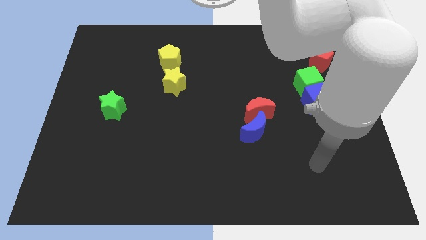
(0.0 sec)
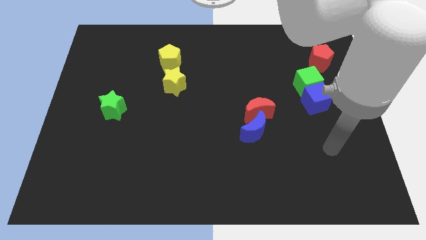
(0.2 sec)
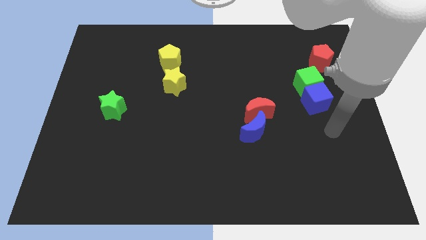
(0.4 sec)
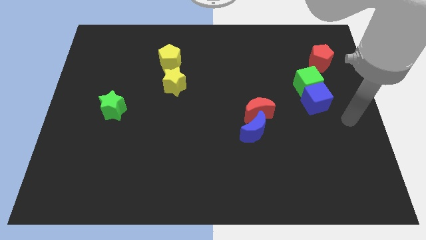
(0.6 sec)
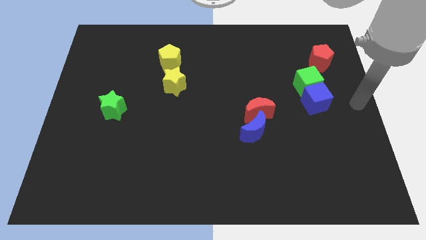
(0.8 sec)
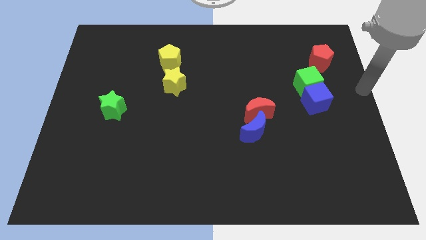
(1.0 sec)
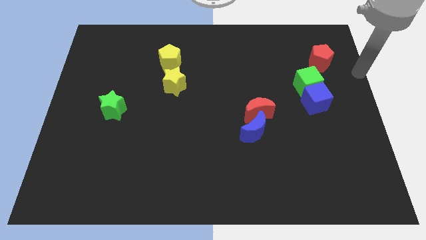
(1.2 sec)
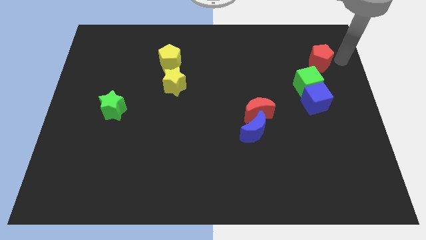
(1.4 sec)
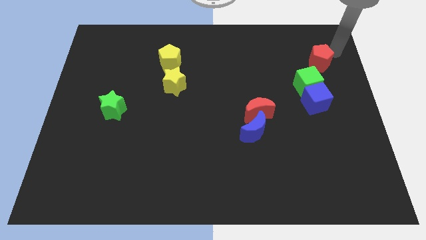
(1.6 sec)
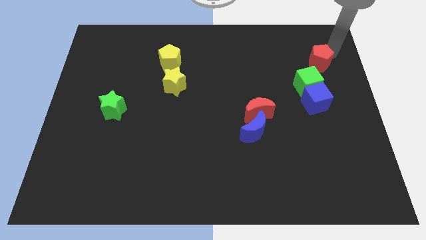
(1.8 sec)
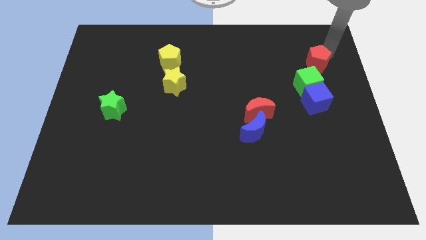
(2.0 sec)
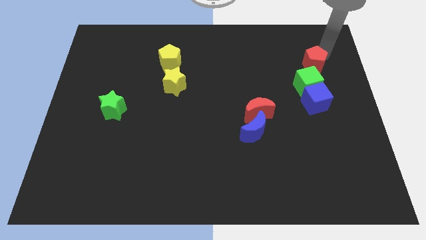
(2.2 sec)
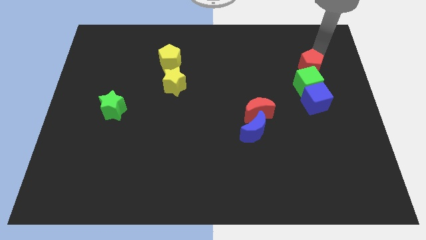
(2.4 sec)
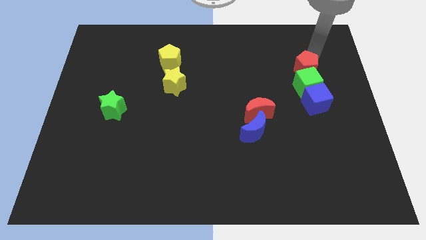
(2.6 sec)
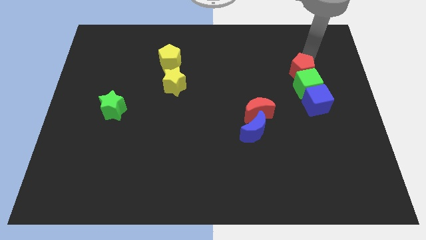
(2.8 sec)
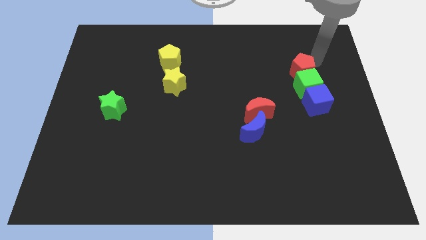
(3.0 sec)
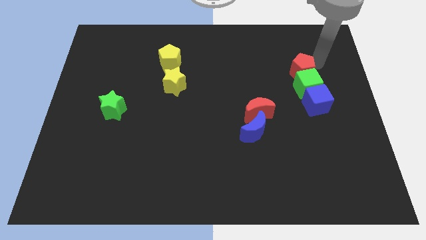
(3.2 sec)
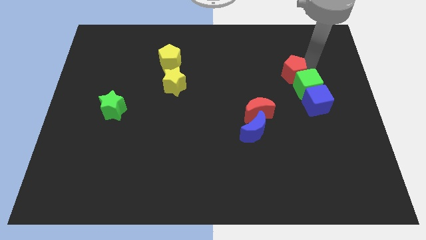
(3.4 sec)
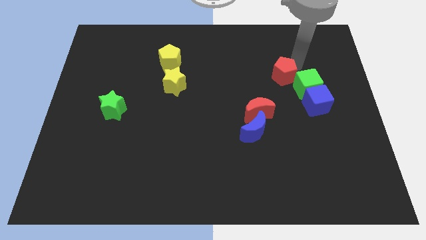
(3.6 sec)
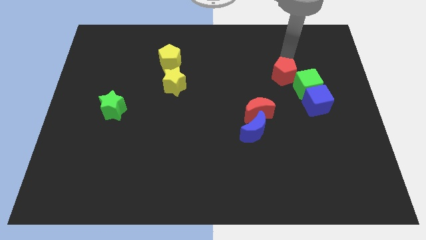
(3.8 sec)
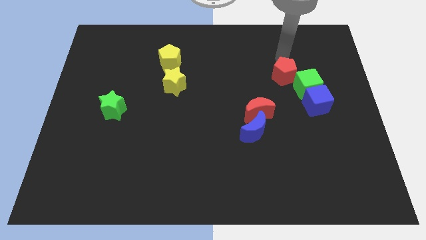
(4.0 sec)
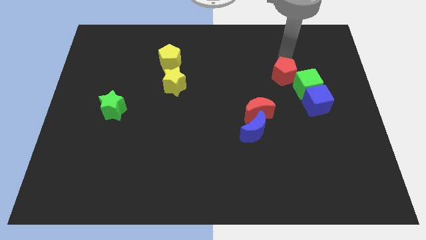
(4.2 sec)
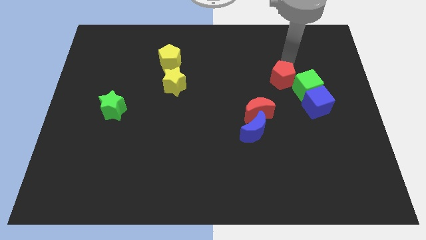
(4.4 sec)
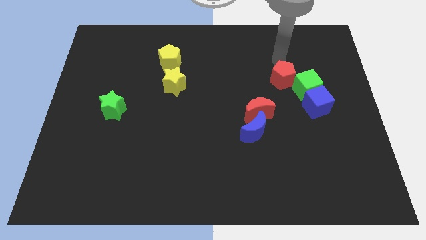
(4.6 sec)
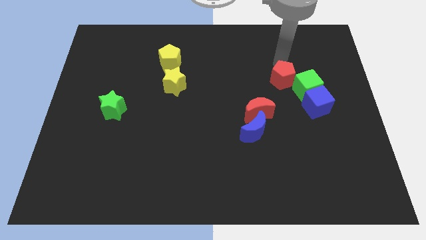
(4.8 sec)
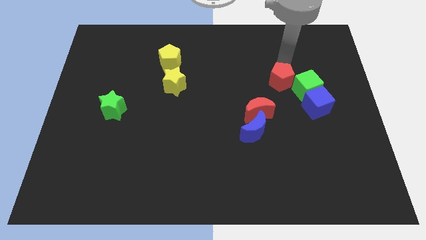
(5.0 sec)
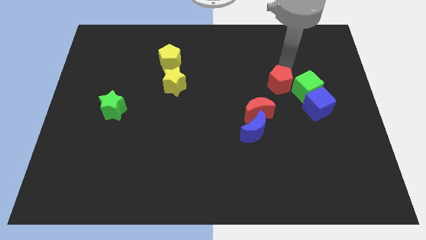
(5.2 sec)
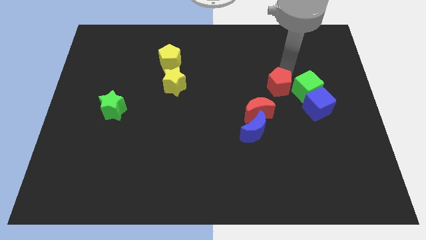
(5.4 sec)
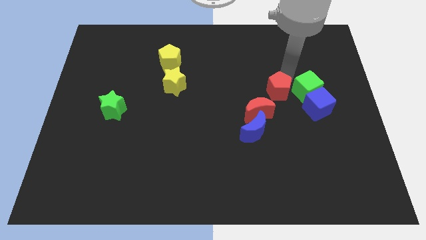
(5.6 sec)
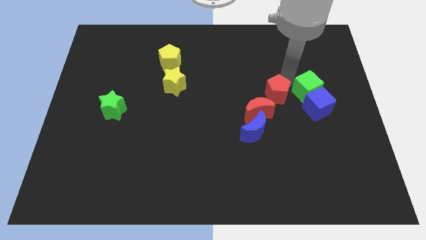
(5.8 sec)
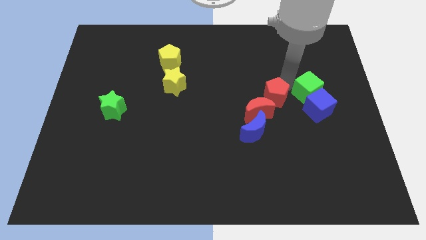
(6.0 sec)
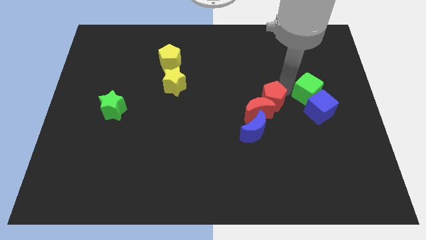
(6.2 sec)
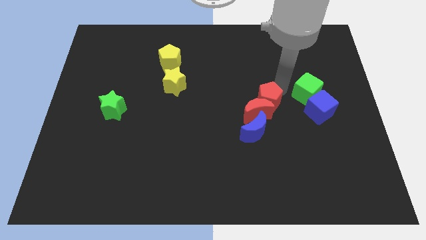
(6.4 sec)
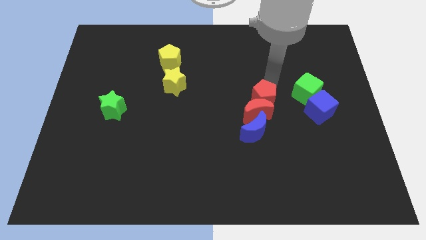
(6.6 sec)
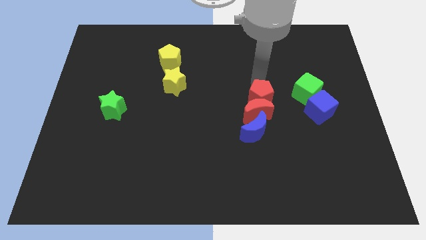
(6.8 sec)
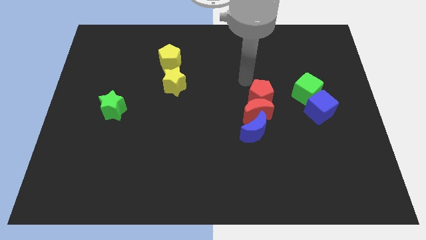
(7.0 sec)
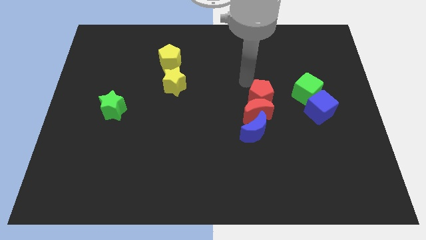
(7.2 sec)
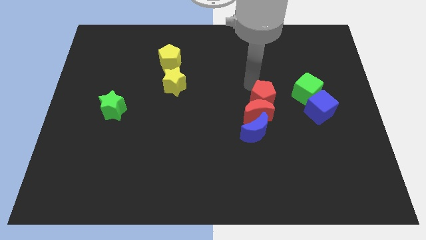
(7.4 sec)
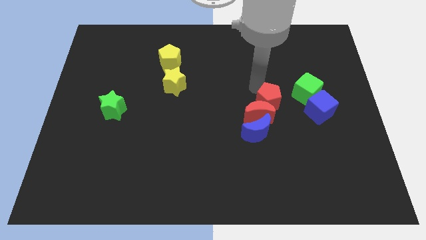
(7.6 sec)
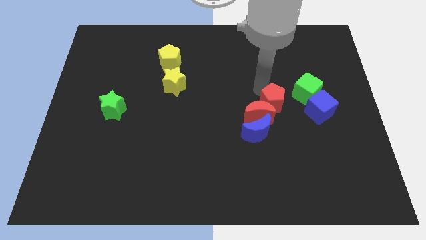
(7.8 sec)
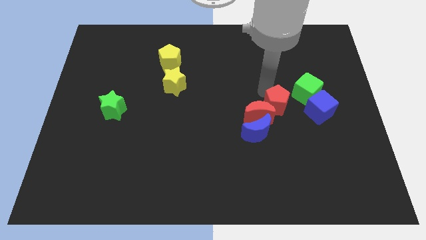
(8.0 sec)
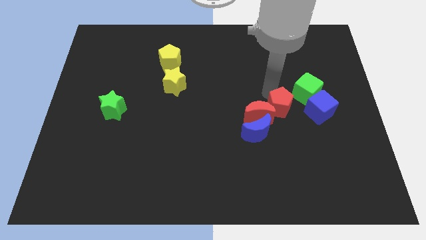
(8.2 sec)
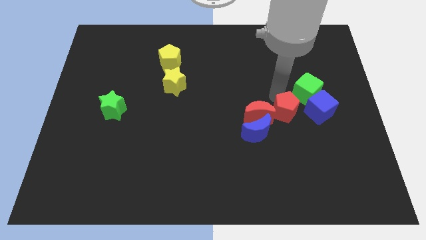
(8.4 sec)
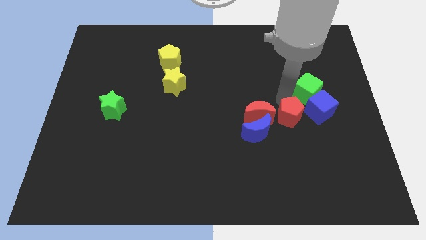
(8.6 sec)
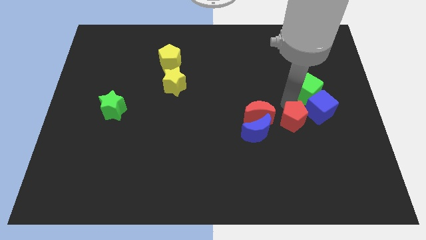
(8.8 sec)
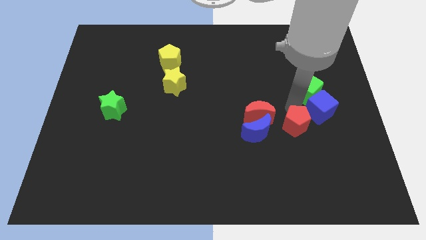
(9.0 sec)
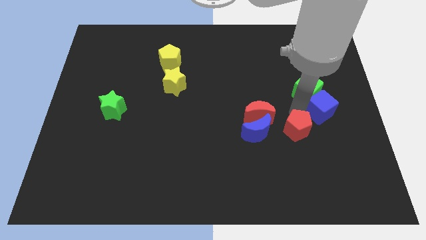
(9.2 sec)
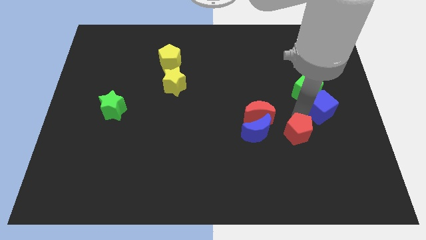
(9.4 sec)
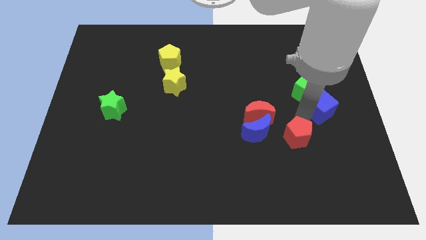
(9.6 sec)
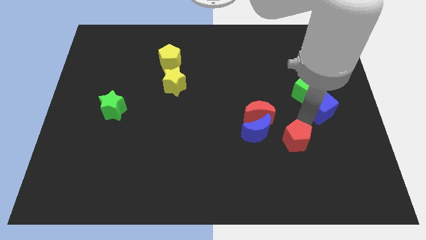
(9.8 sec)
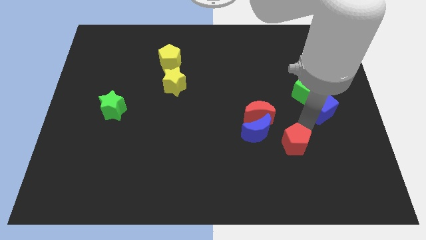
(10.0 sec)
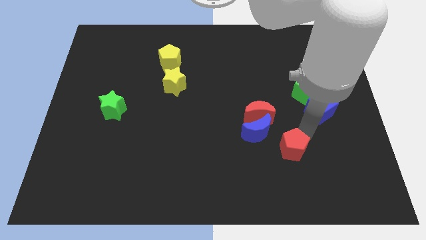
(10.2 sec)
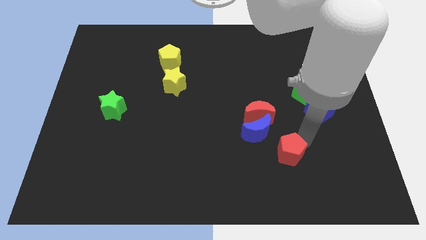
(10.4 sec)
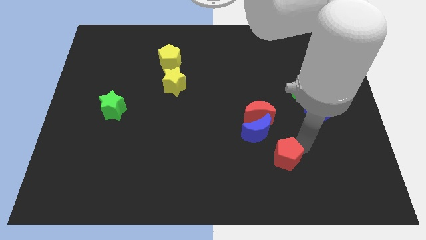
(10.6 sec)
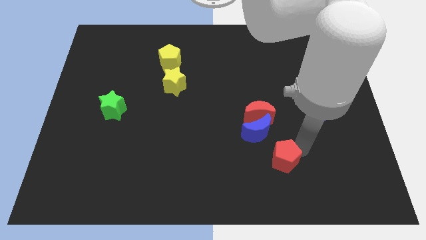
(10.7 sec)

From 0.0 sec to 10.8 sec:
push the red pentagon to the bottom of the red moon

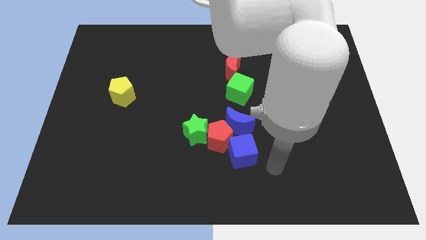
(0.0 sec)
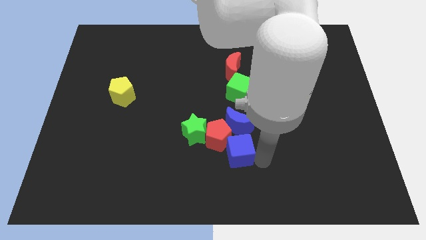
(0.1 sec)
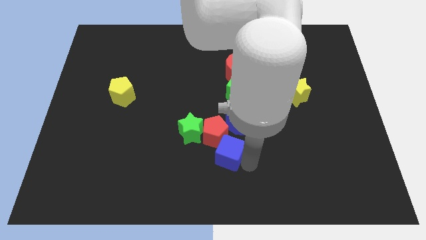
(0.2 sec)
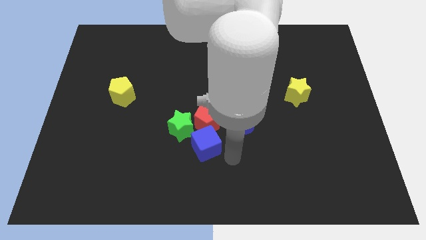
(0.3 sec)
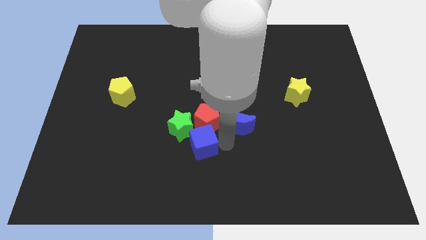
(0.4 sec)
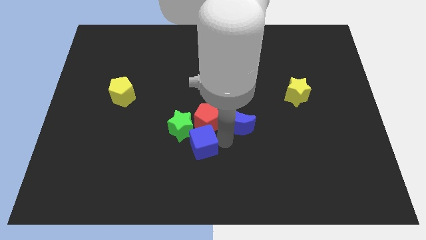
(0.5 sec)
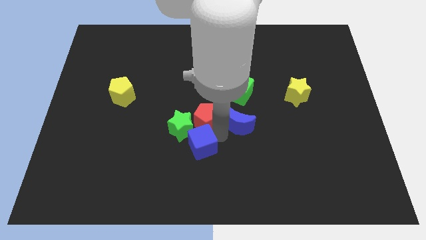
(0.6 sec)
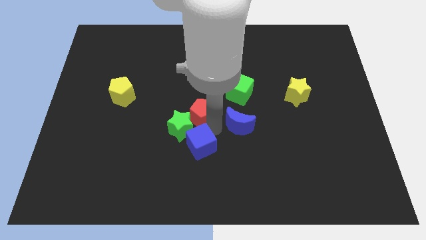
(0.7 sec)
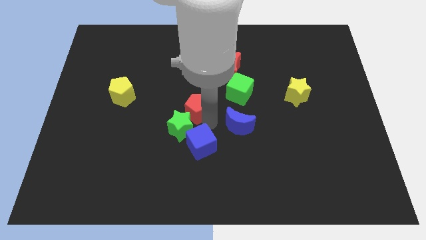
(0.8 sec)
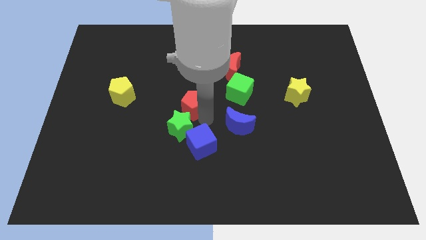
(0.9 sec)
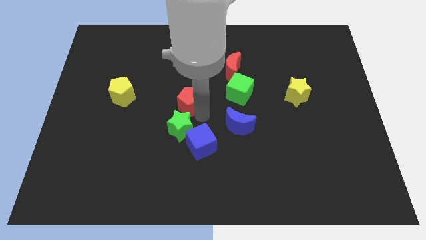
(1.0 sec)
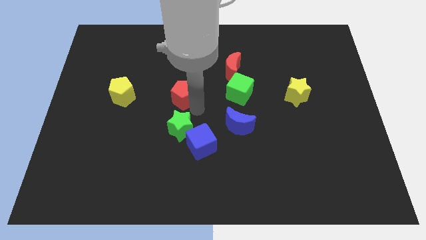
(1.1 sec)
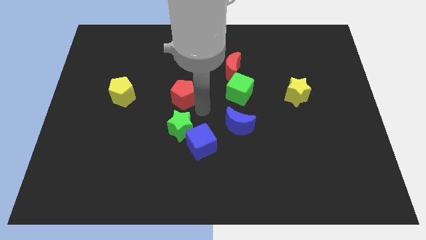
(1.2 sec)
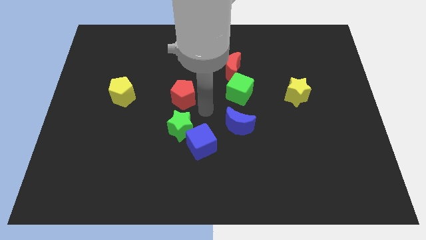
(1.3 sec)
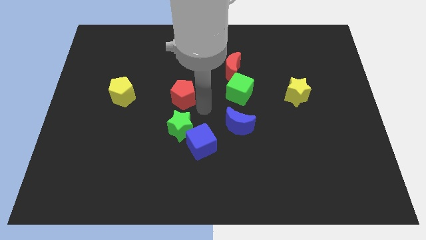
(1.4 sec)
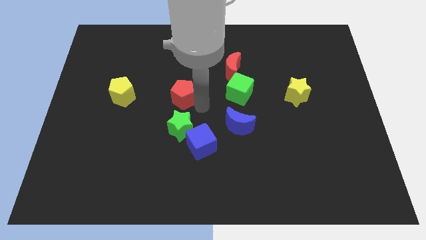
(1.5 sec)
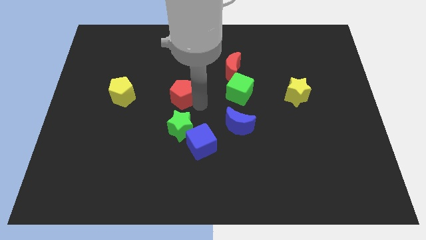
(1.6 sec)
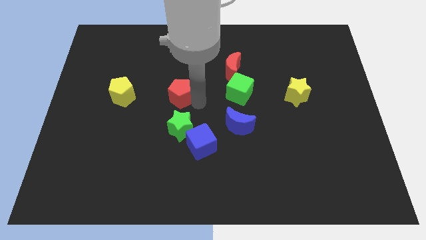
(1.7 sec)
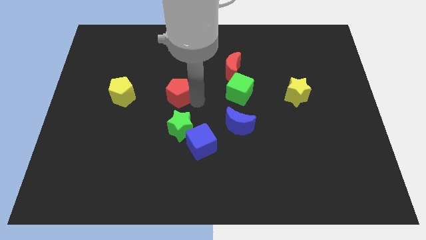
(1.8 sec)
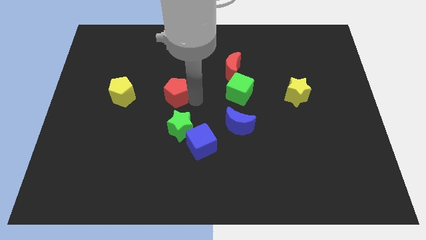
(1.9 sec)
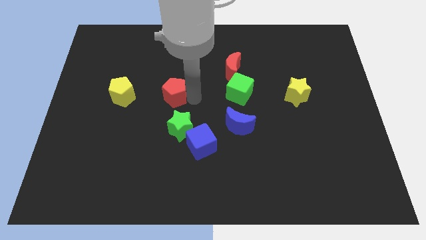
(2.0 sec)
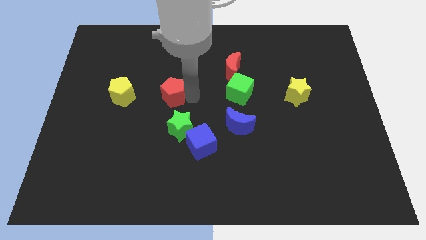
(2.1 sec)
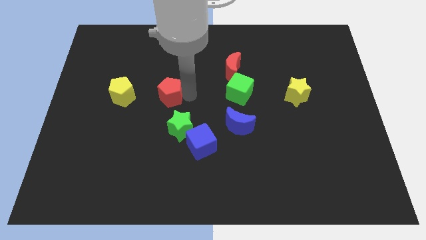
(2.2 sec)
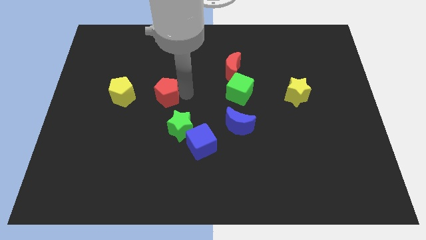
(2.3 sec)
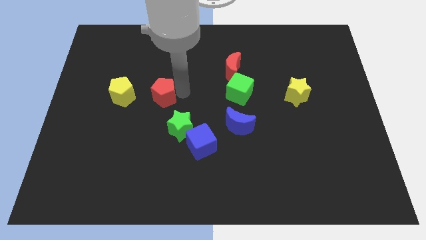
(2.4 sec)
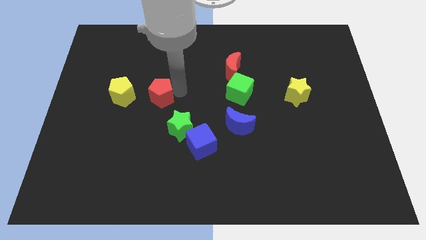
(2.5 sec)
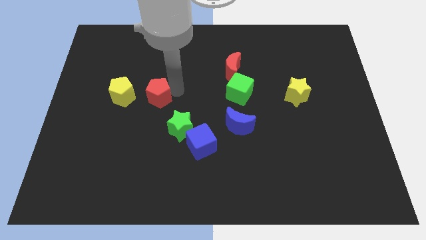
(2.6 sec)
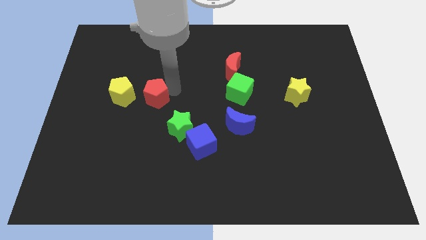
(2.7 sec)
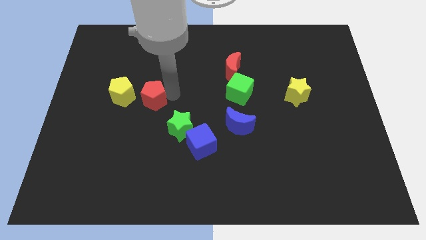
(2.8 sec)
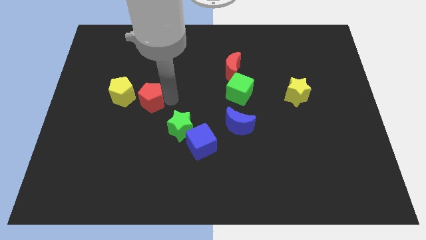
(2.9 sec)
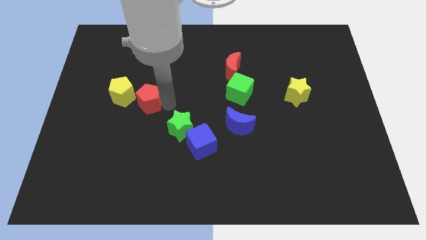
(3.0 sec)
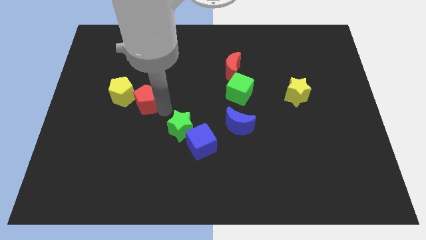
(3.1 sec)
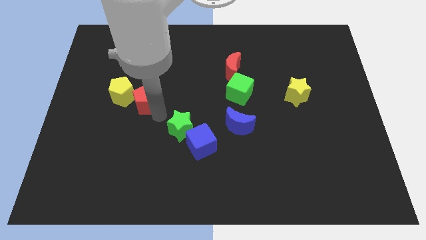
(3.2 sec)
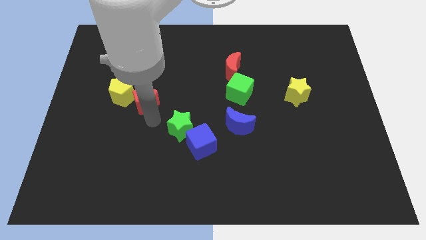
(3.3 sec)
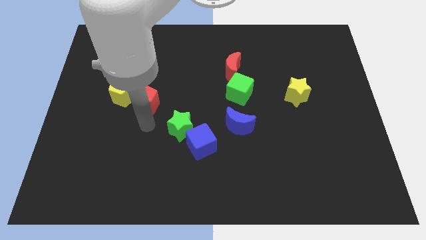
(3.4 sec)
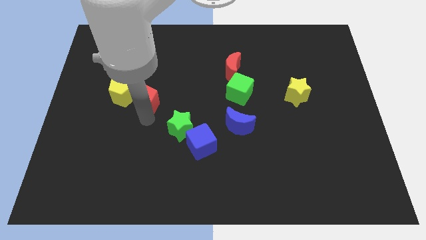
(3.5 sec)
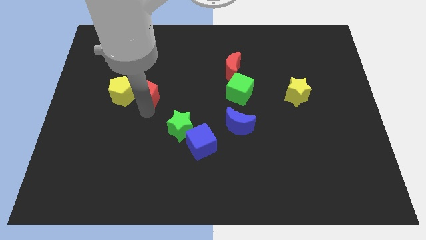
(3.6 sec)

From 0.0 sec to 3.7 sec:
push the red pentagon diagonally up and to the right of the yellow pentagon
